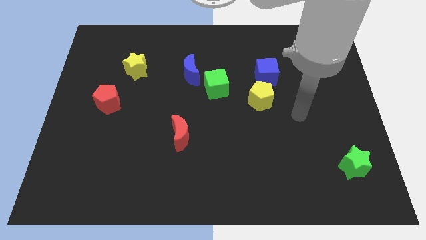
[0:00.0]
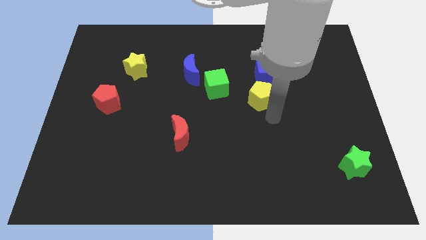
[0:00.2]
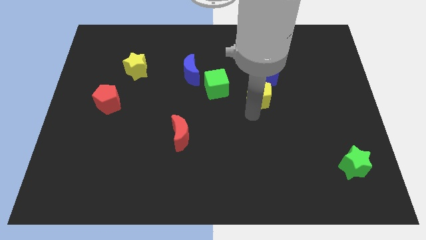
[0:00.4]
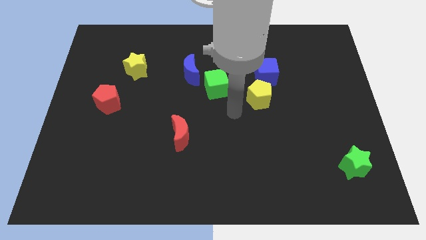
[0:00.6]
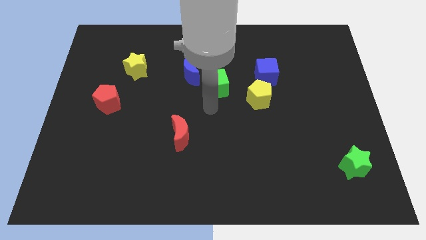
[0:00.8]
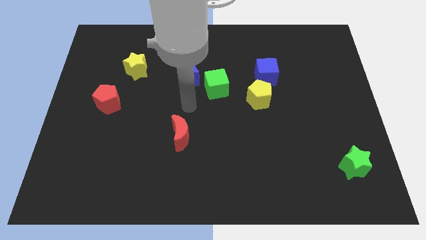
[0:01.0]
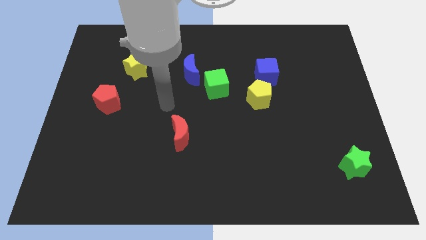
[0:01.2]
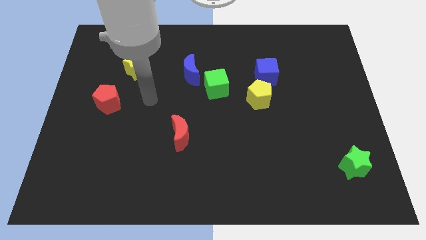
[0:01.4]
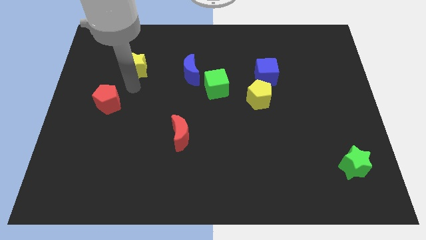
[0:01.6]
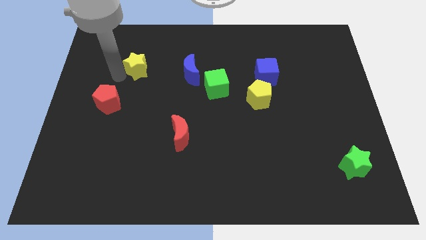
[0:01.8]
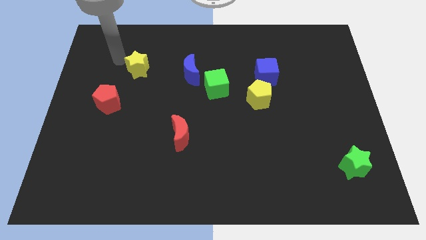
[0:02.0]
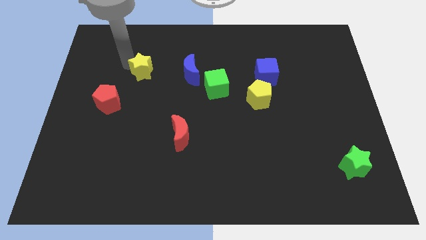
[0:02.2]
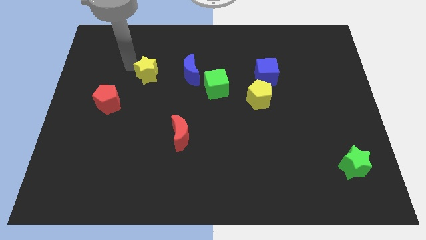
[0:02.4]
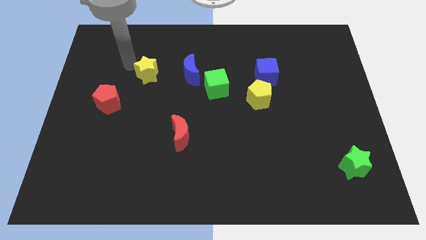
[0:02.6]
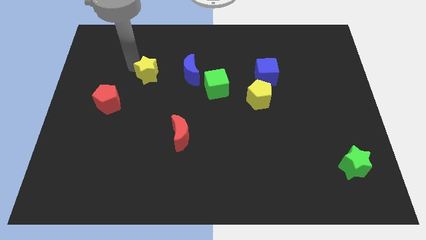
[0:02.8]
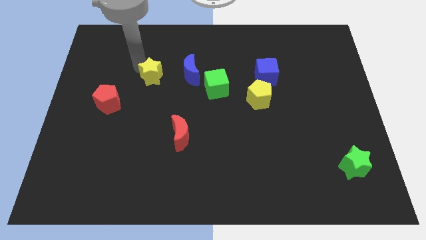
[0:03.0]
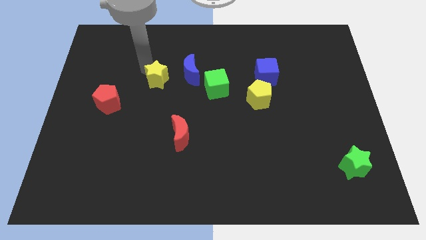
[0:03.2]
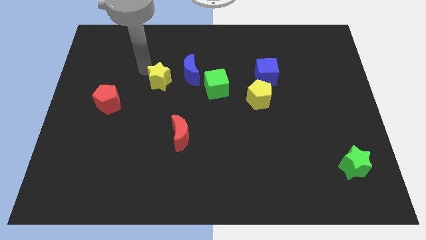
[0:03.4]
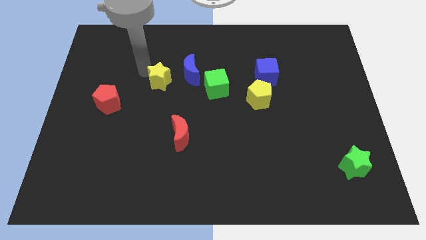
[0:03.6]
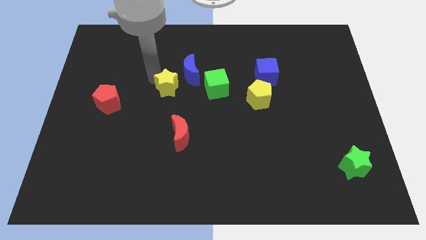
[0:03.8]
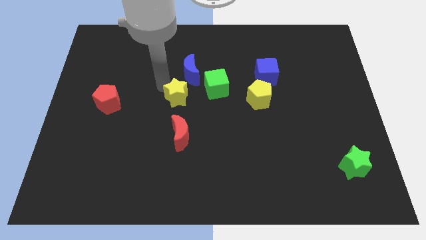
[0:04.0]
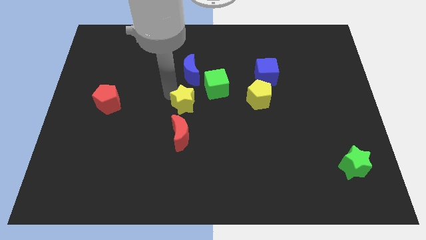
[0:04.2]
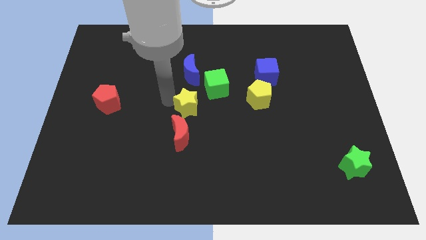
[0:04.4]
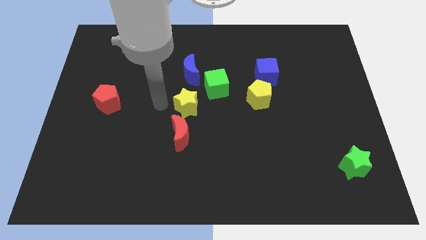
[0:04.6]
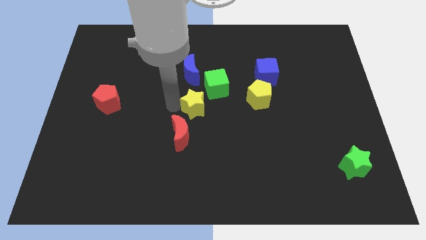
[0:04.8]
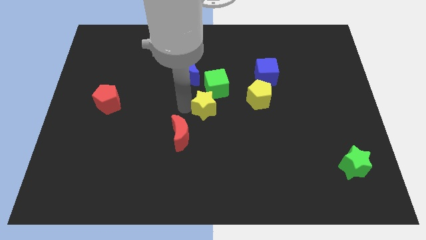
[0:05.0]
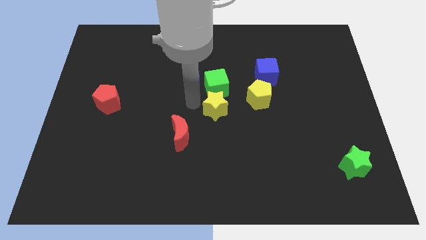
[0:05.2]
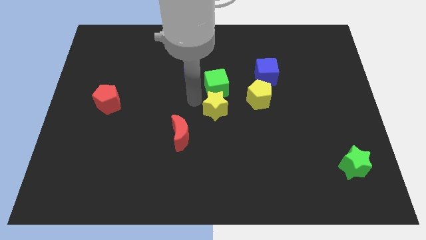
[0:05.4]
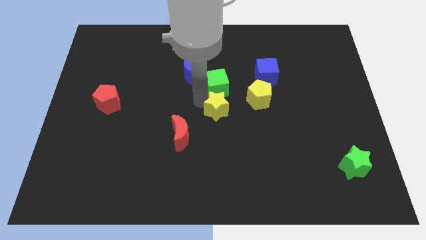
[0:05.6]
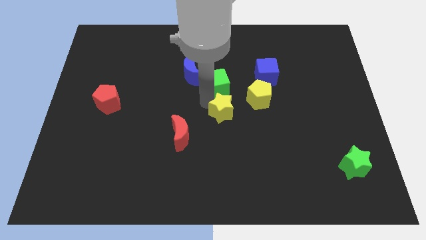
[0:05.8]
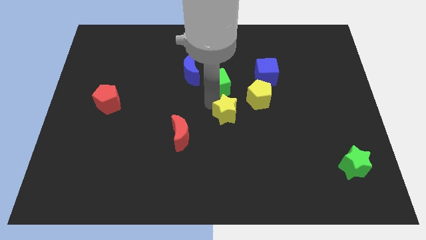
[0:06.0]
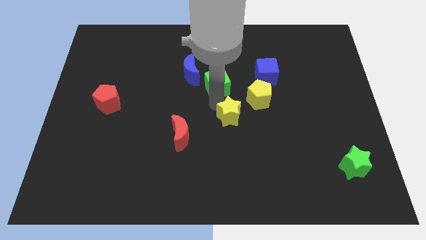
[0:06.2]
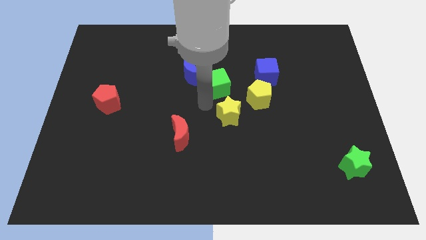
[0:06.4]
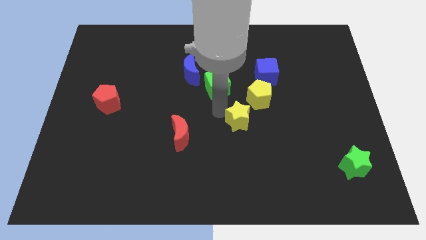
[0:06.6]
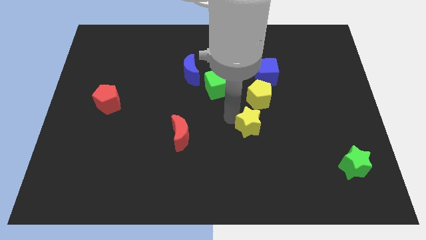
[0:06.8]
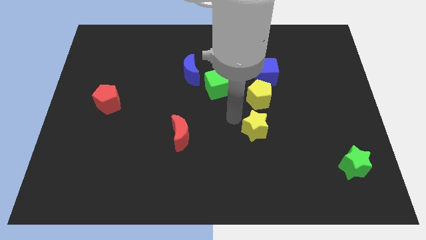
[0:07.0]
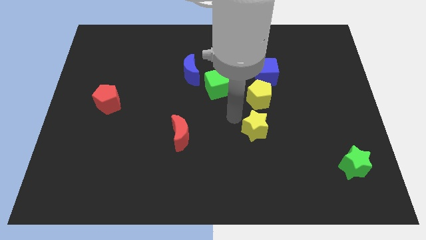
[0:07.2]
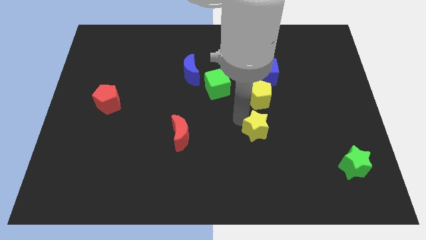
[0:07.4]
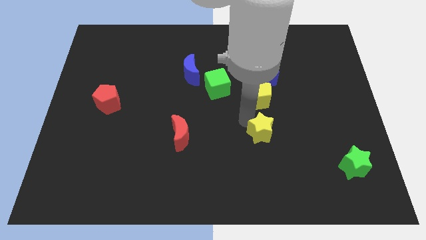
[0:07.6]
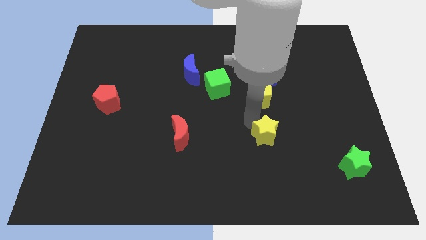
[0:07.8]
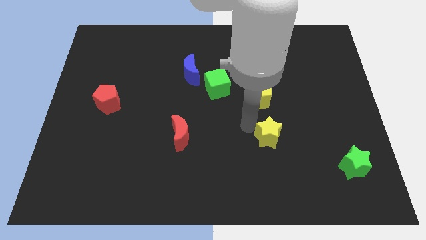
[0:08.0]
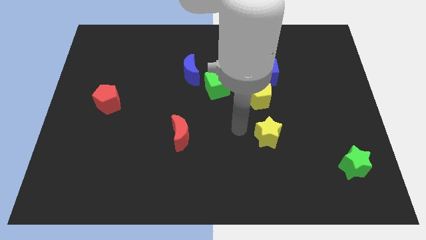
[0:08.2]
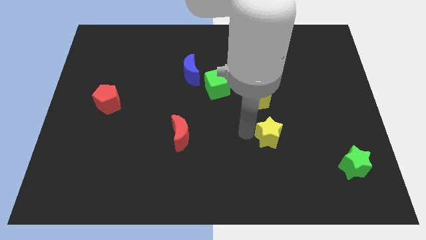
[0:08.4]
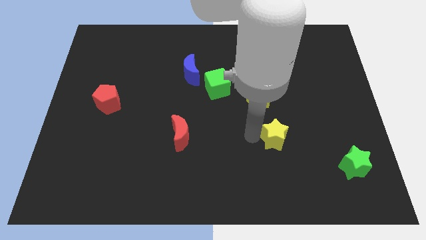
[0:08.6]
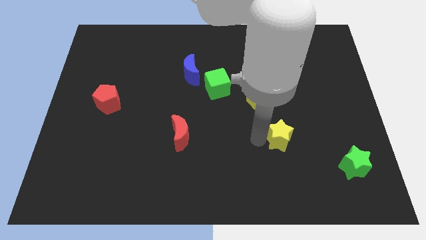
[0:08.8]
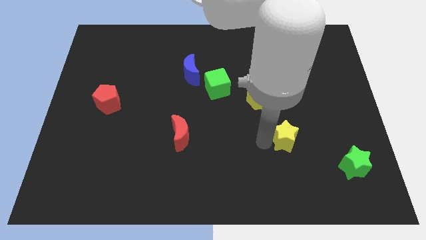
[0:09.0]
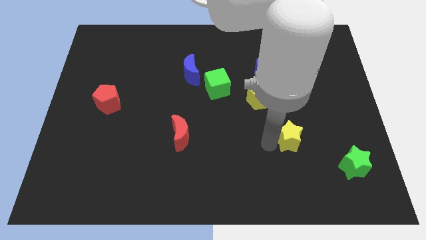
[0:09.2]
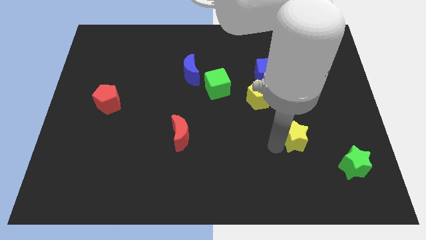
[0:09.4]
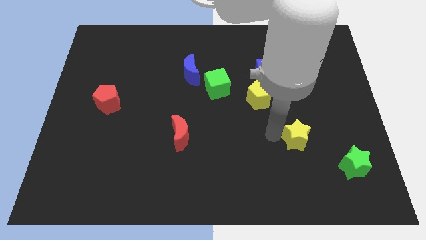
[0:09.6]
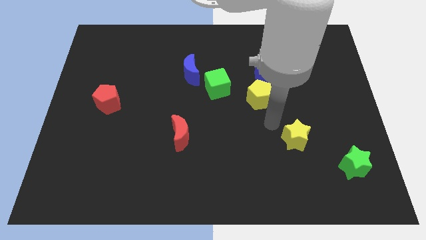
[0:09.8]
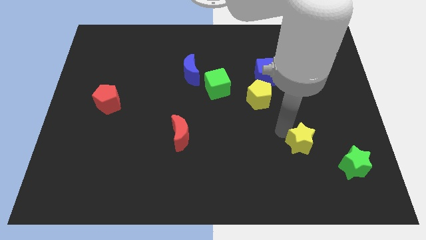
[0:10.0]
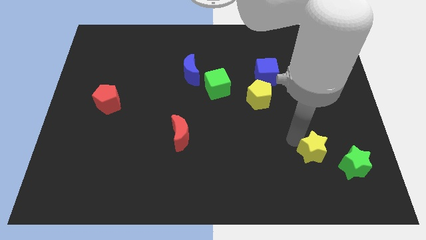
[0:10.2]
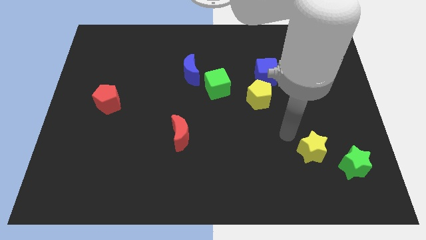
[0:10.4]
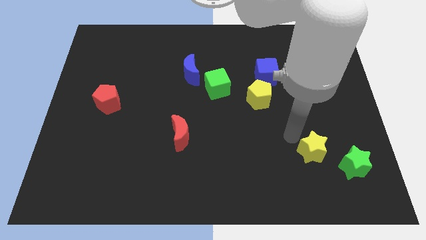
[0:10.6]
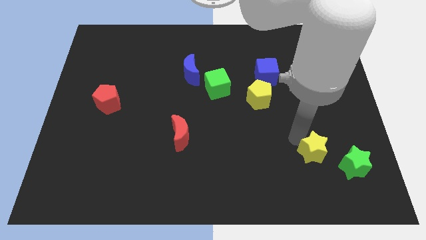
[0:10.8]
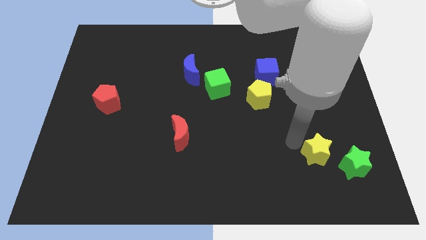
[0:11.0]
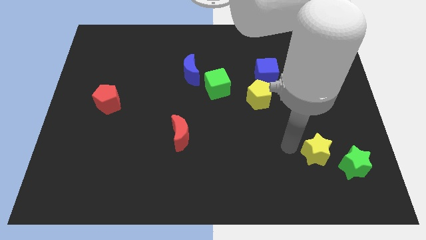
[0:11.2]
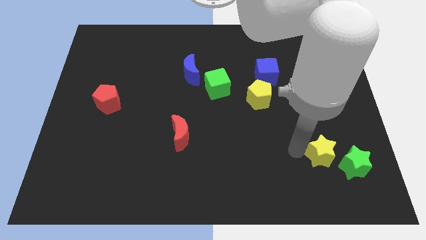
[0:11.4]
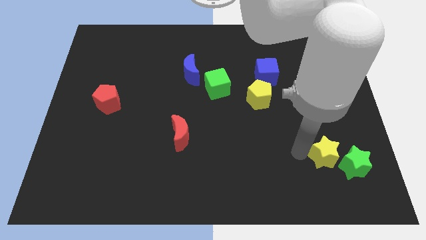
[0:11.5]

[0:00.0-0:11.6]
push the yellow star towards the green star

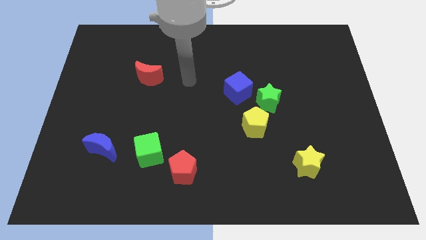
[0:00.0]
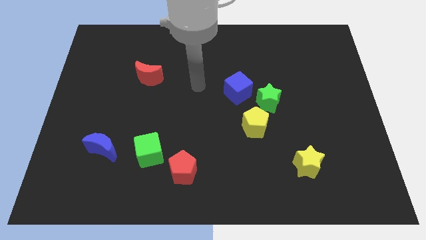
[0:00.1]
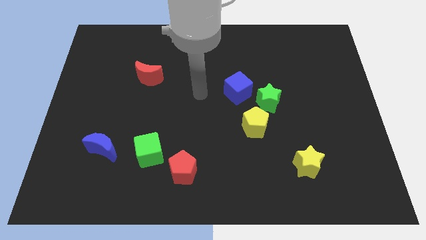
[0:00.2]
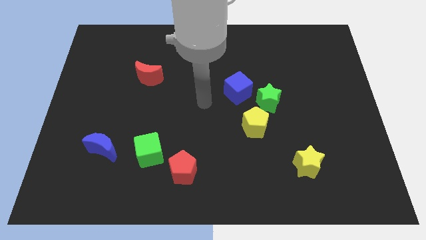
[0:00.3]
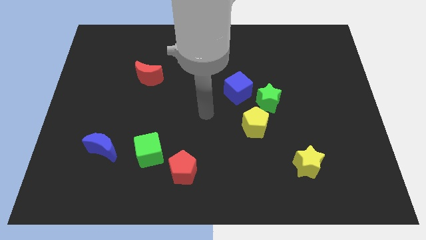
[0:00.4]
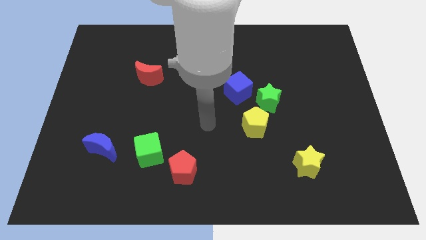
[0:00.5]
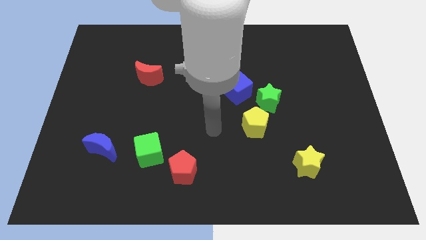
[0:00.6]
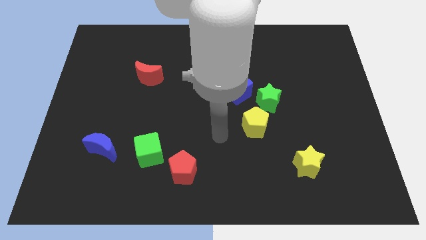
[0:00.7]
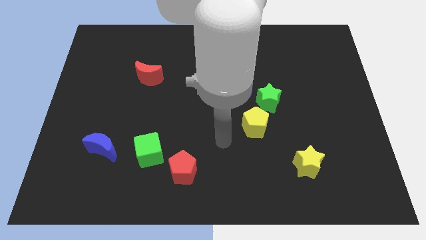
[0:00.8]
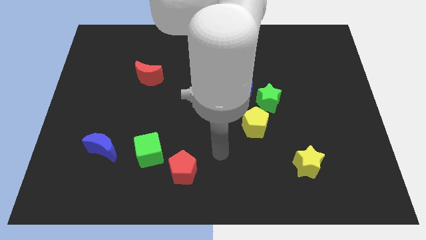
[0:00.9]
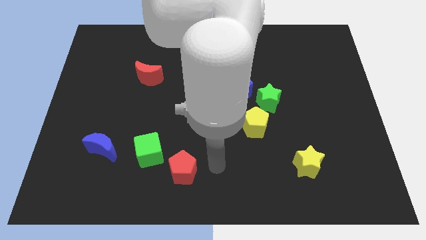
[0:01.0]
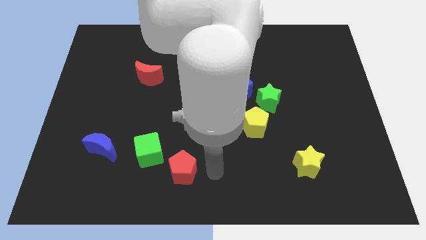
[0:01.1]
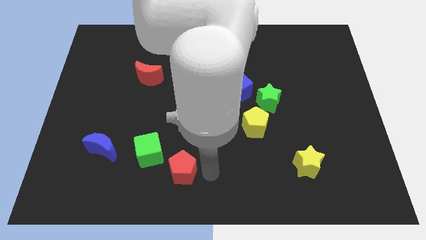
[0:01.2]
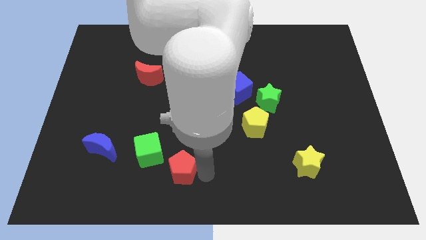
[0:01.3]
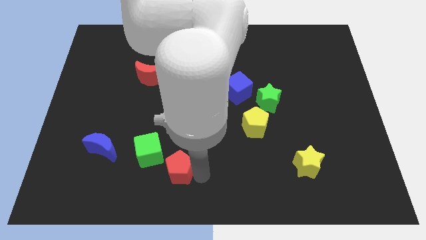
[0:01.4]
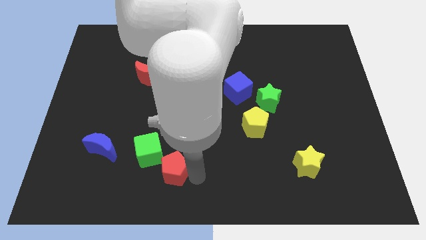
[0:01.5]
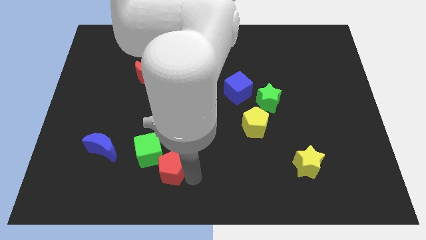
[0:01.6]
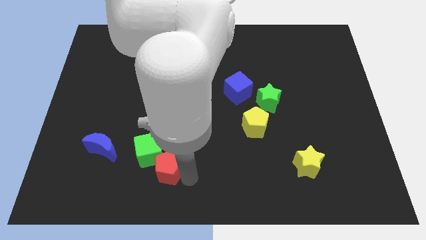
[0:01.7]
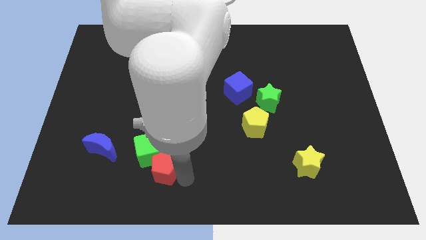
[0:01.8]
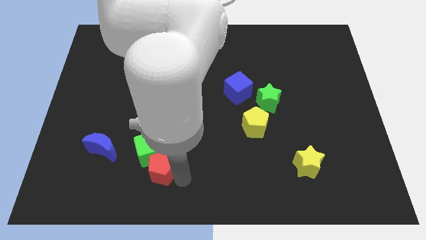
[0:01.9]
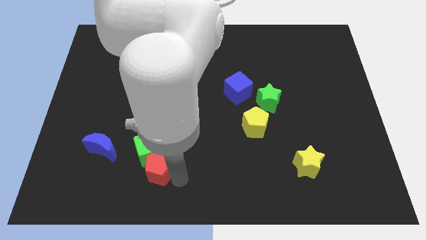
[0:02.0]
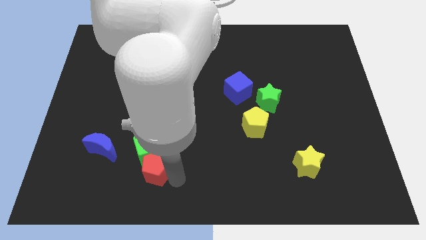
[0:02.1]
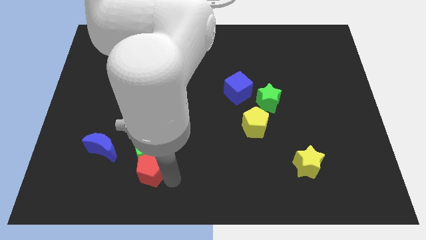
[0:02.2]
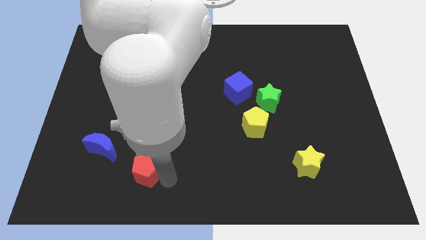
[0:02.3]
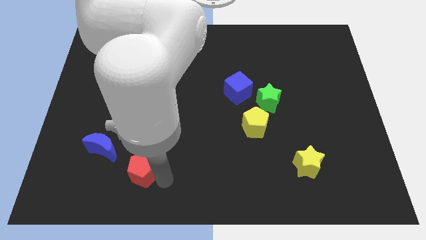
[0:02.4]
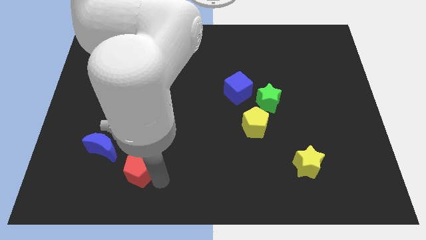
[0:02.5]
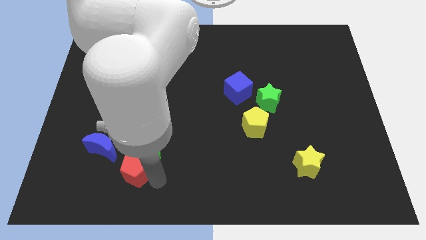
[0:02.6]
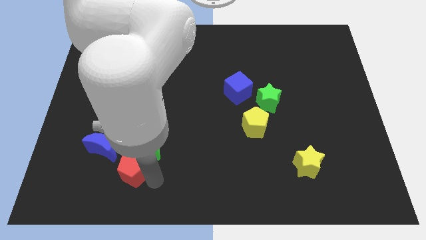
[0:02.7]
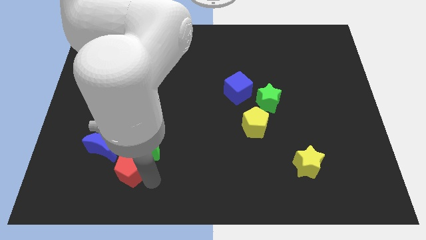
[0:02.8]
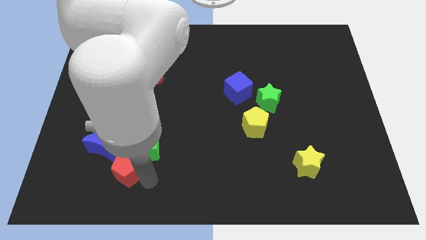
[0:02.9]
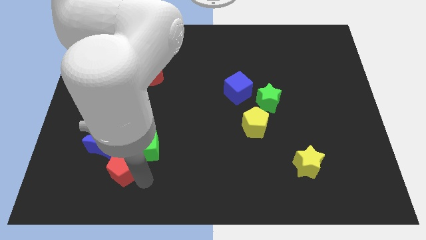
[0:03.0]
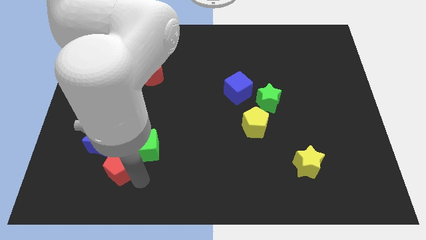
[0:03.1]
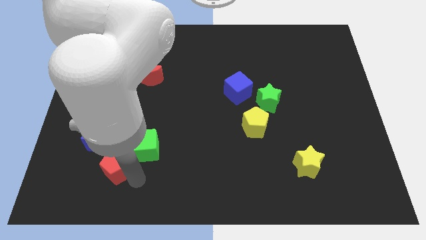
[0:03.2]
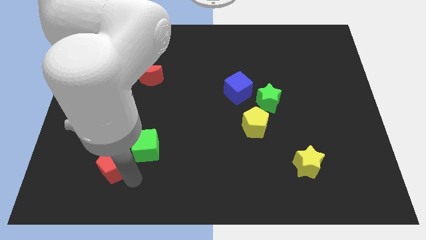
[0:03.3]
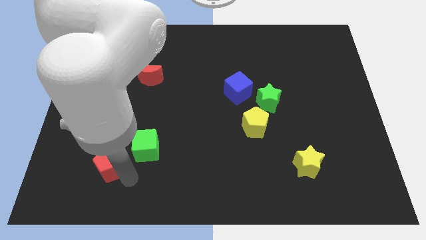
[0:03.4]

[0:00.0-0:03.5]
move the red pentagon to the blue moon
